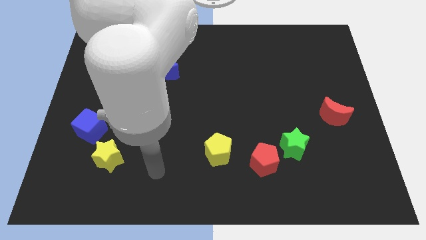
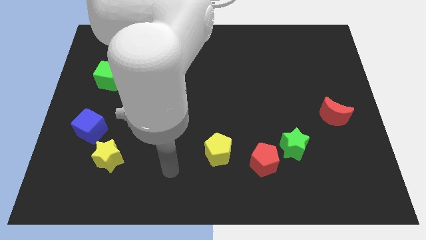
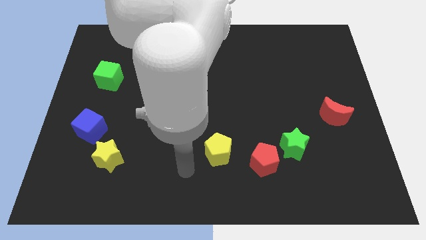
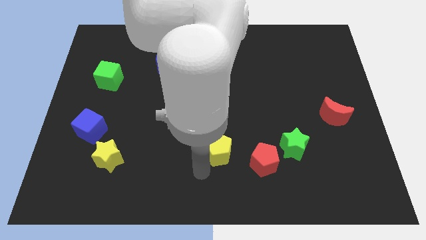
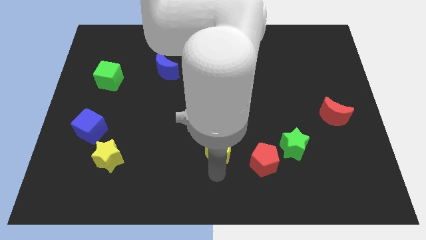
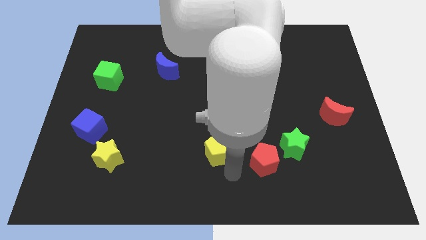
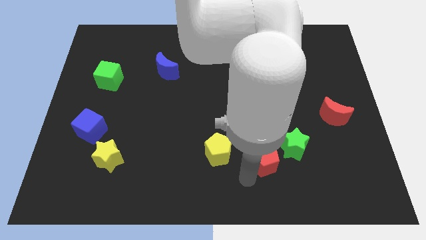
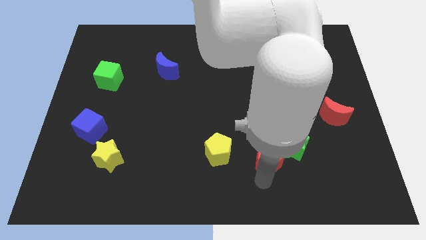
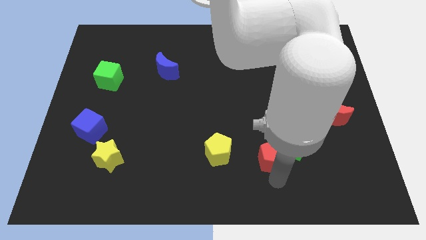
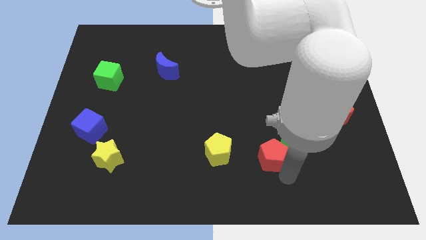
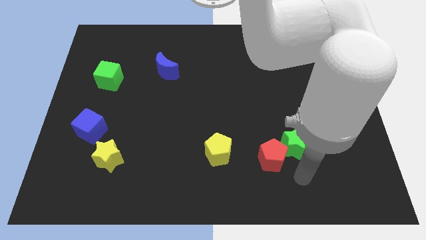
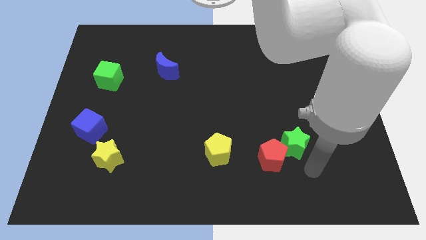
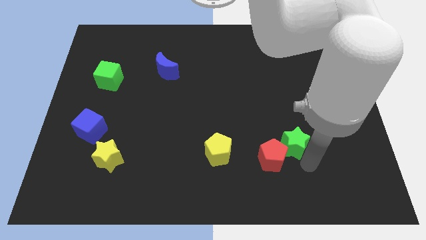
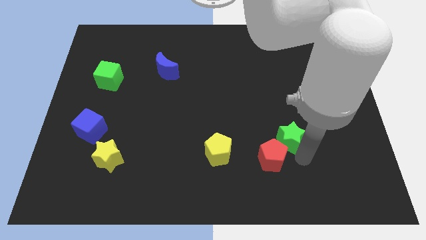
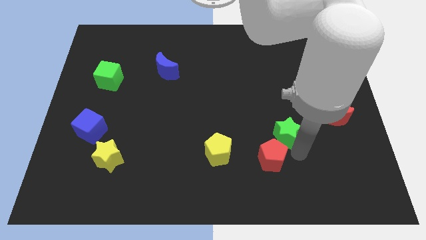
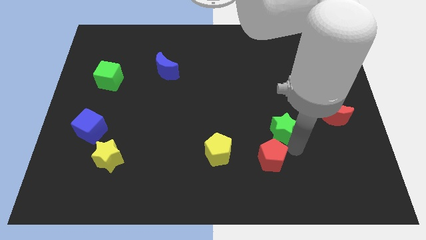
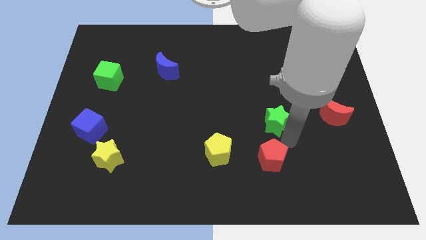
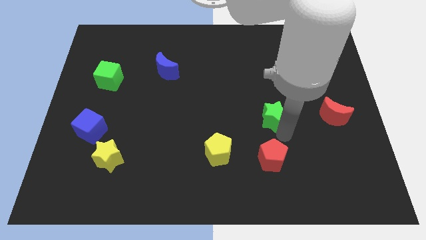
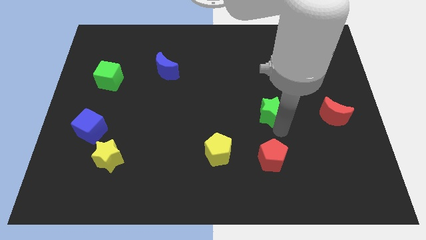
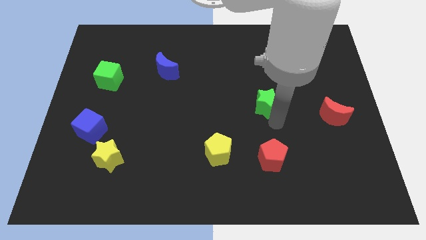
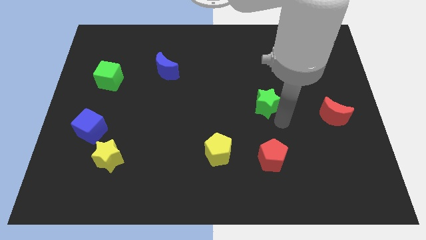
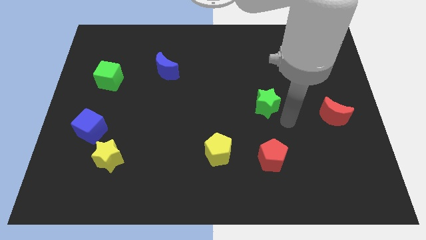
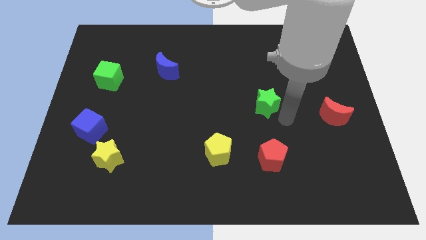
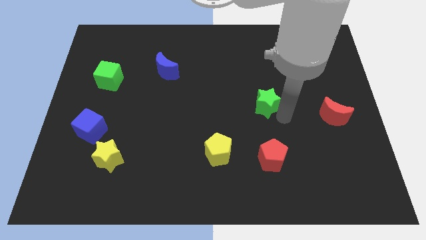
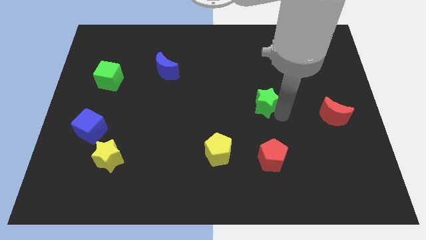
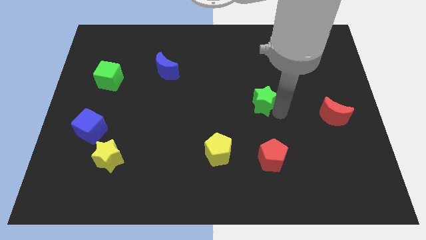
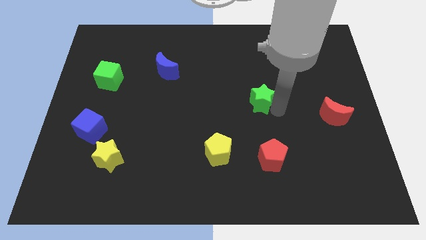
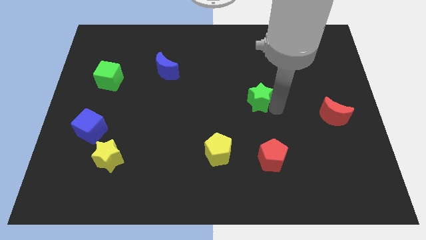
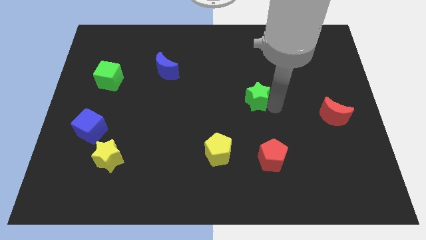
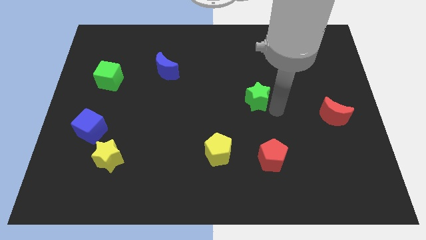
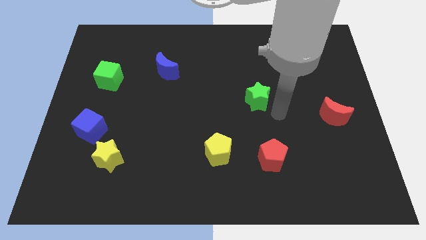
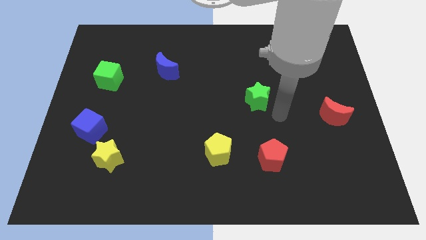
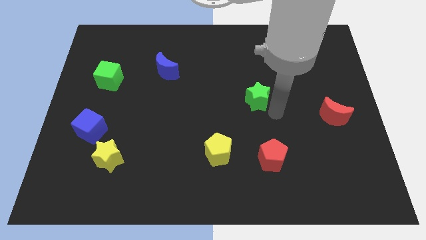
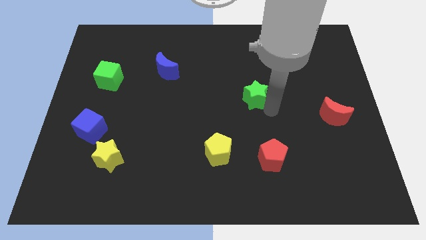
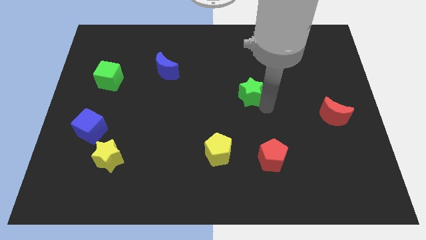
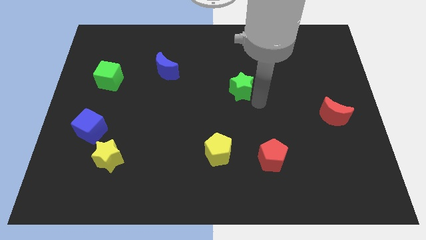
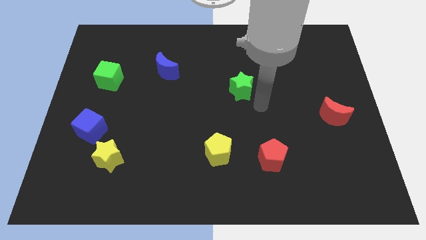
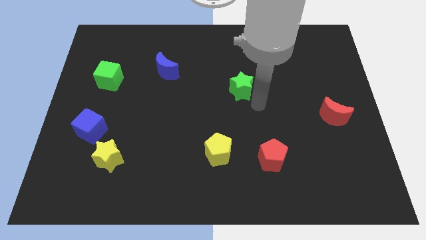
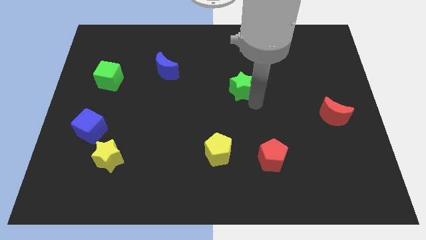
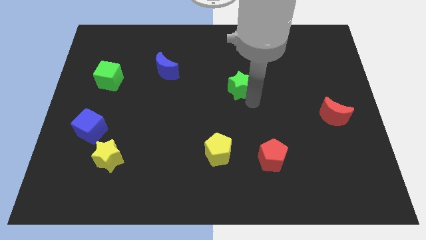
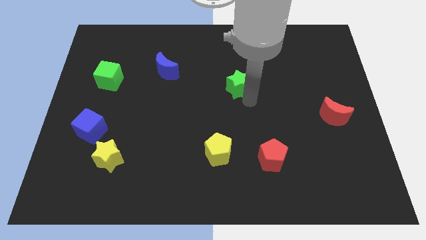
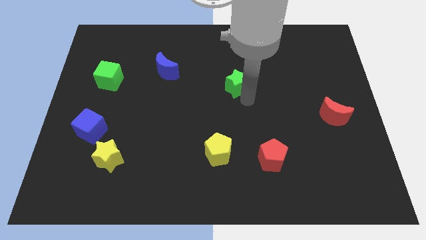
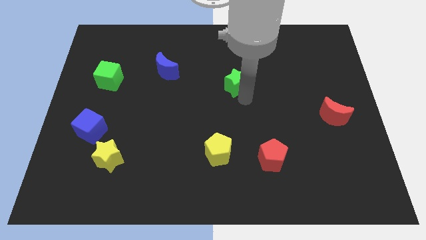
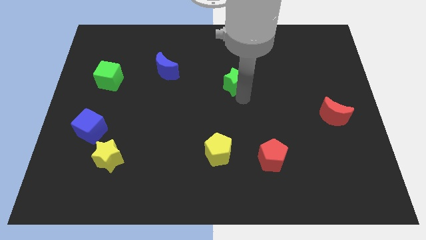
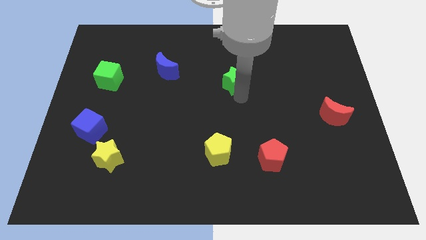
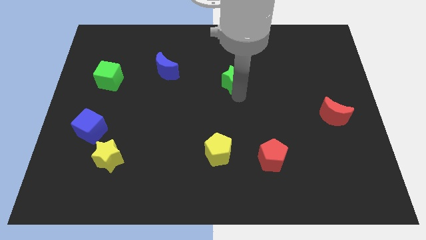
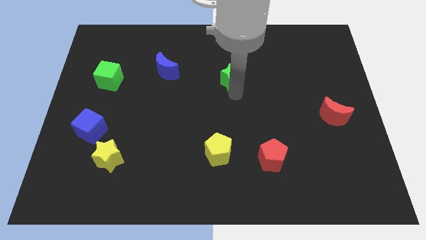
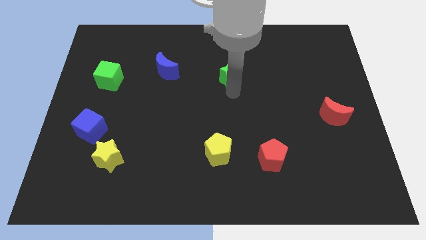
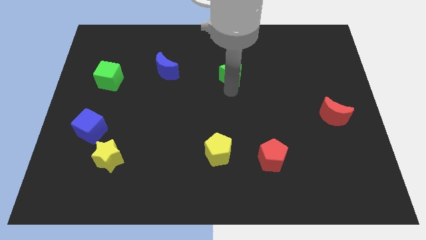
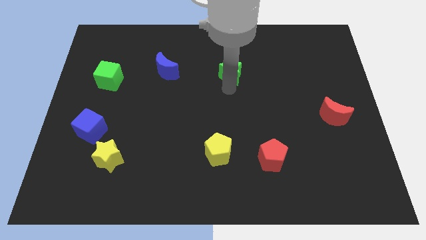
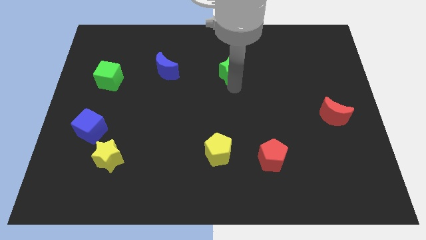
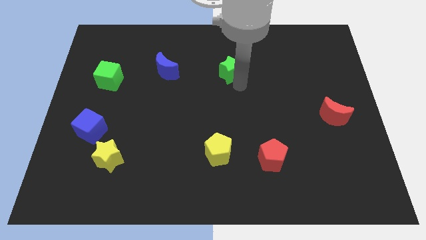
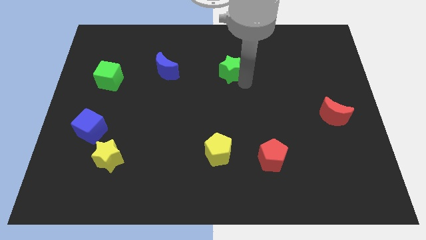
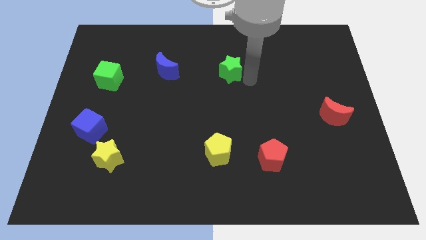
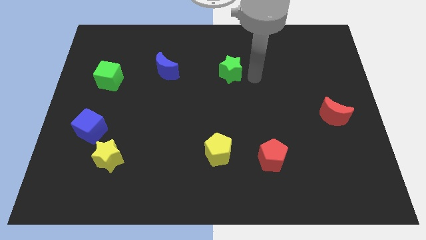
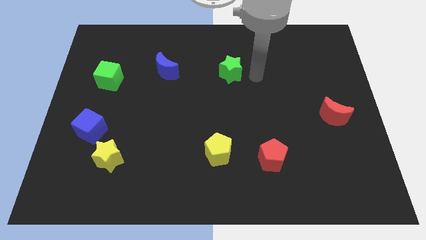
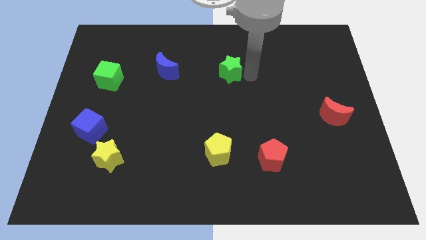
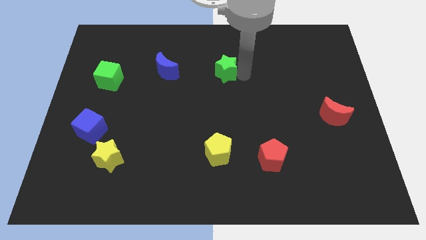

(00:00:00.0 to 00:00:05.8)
move the green star to the right side of the blue moon

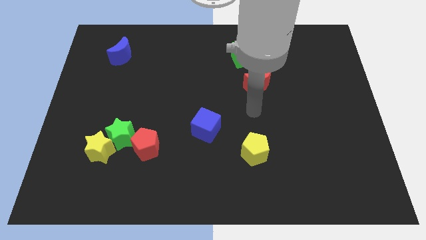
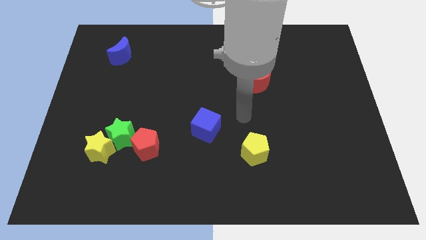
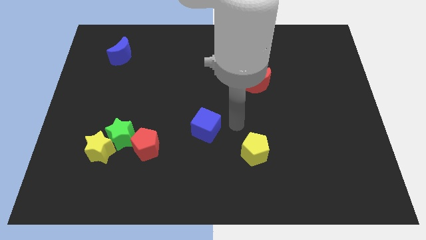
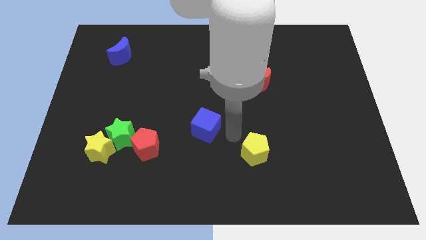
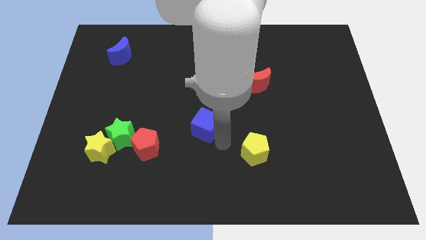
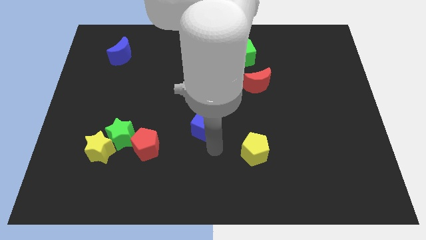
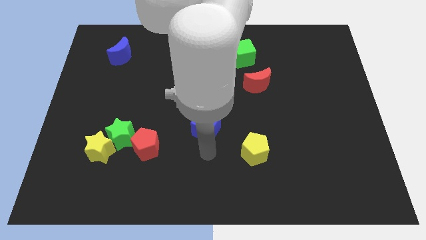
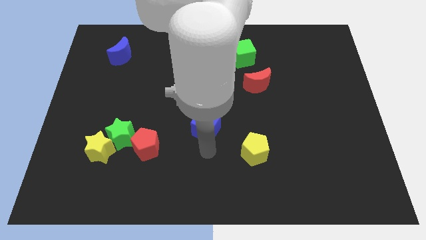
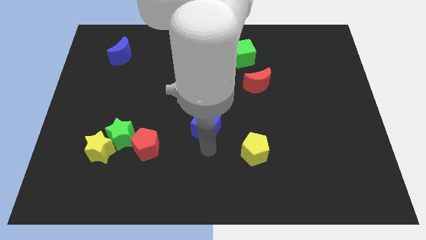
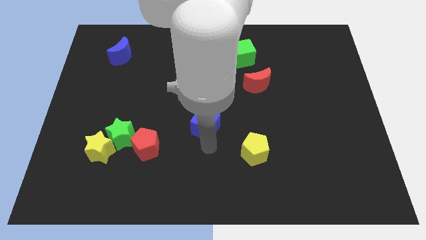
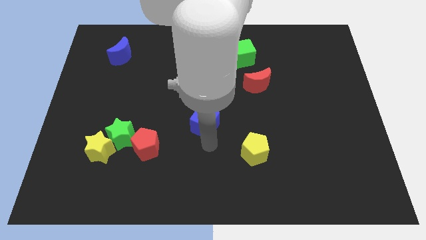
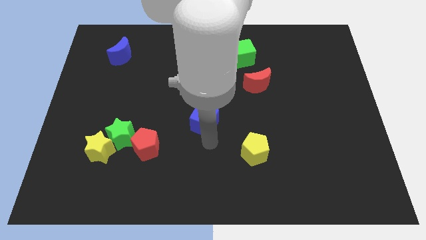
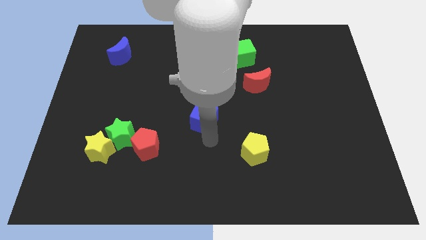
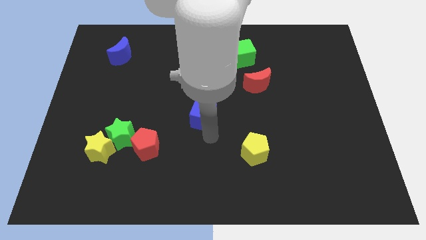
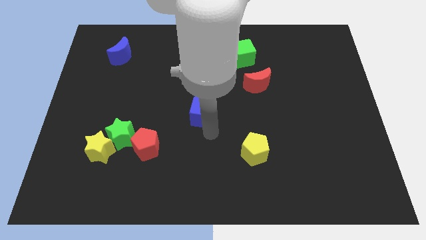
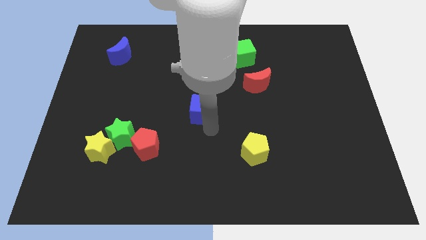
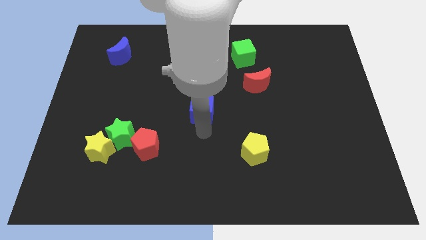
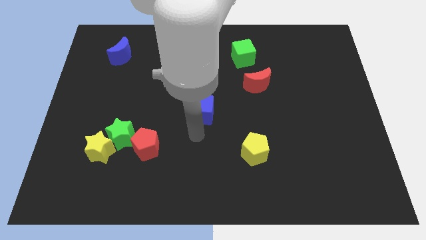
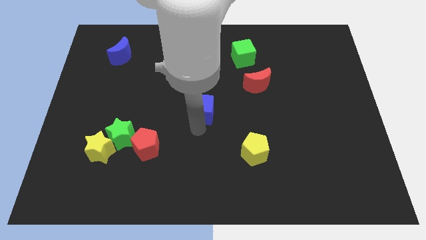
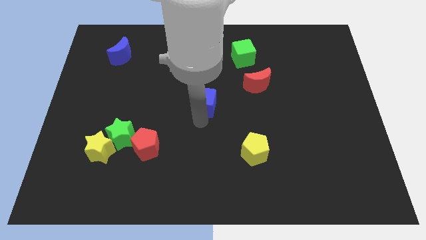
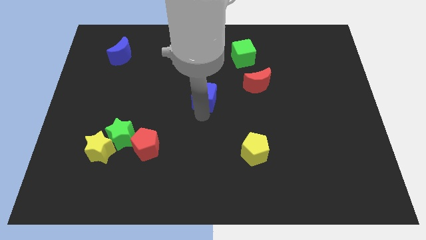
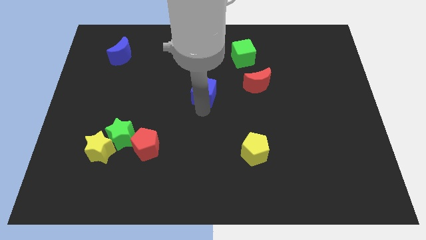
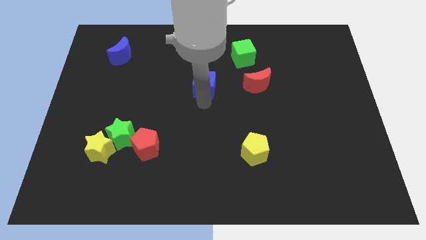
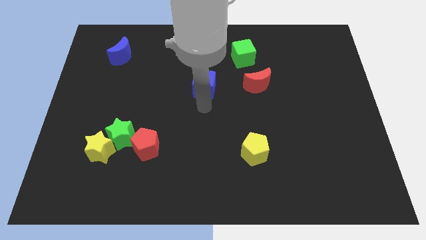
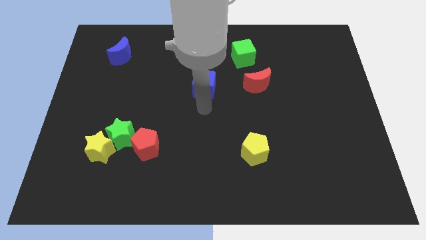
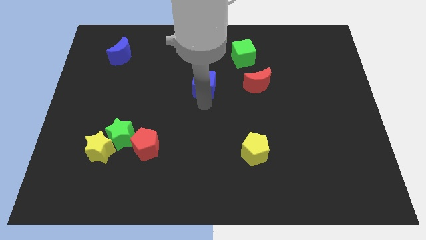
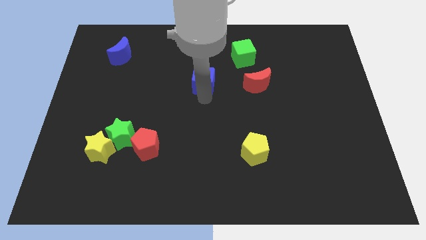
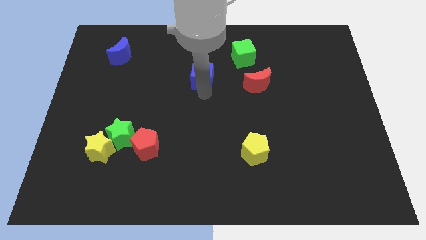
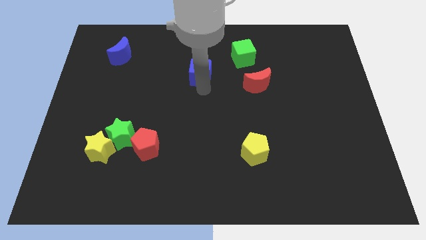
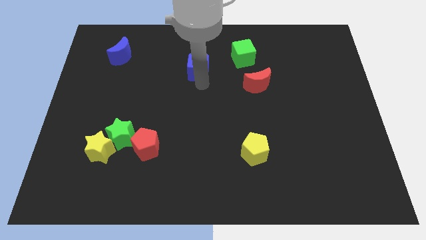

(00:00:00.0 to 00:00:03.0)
push the blue cube left of the green cube
